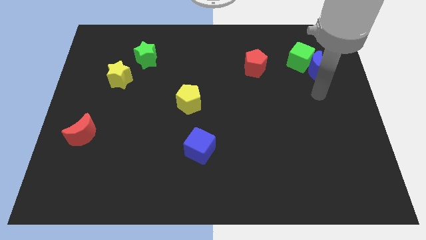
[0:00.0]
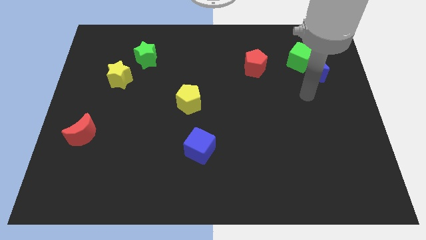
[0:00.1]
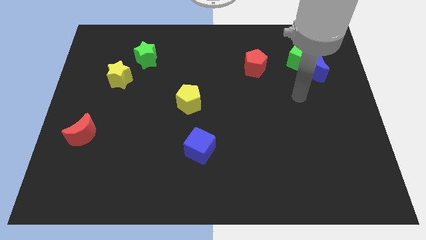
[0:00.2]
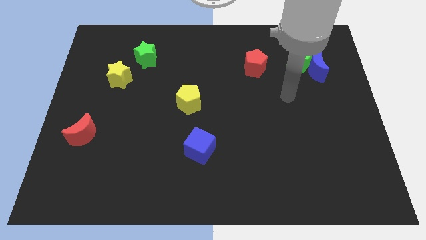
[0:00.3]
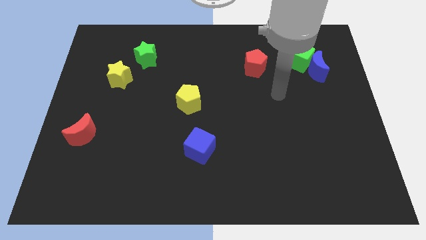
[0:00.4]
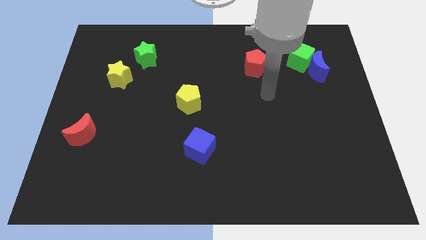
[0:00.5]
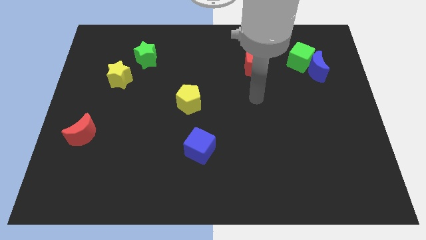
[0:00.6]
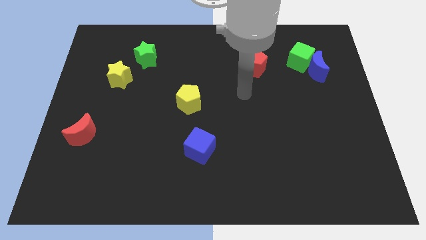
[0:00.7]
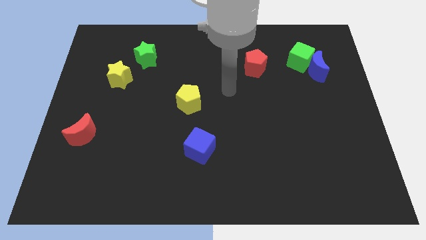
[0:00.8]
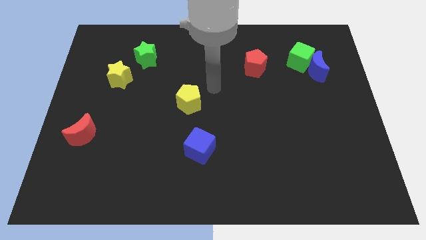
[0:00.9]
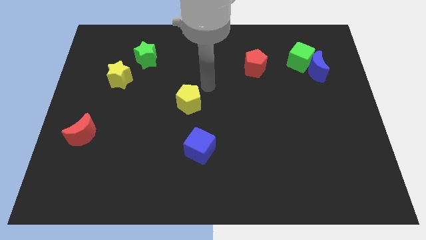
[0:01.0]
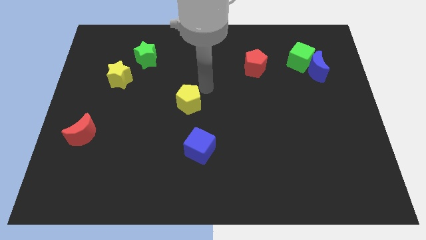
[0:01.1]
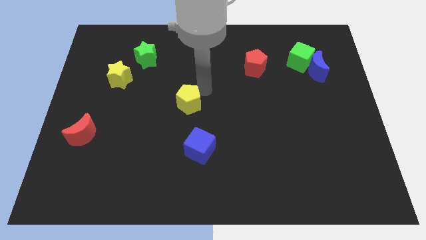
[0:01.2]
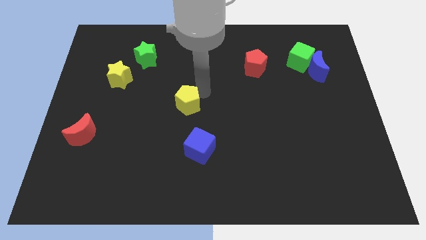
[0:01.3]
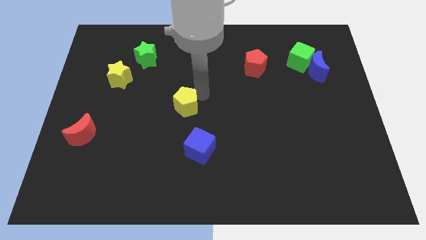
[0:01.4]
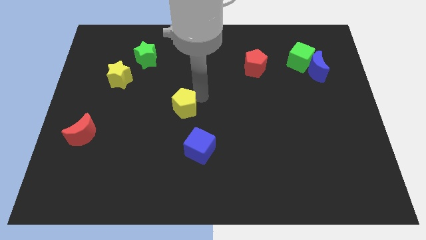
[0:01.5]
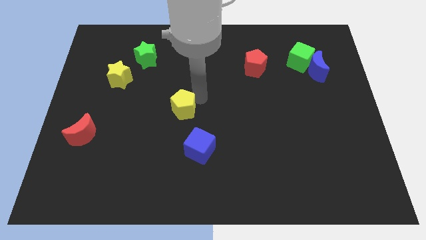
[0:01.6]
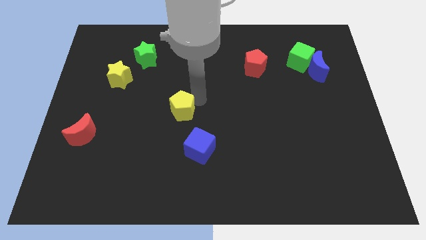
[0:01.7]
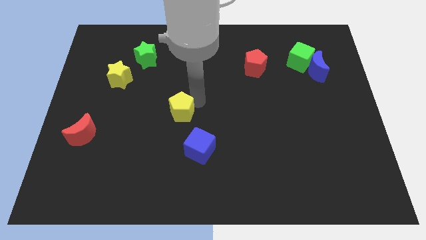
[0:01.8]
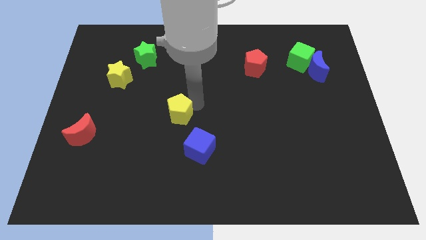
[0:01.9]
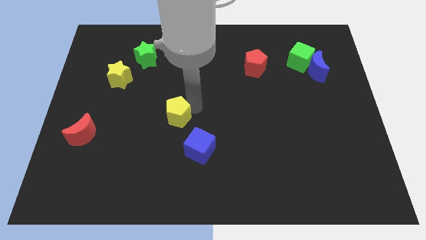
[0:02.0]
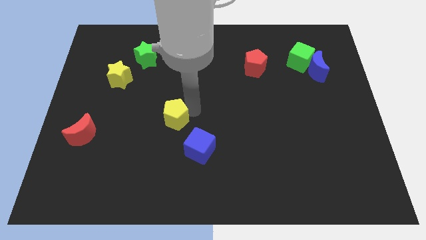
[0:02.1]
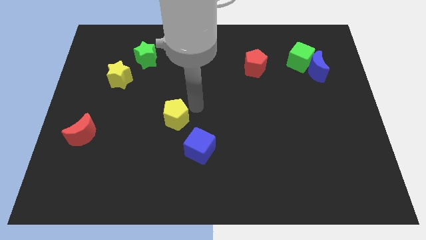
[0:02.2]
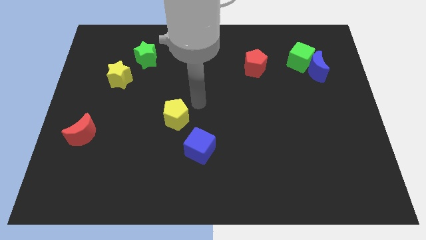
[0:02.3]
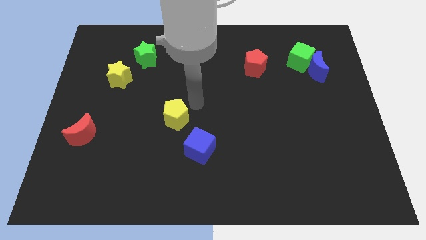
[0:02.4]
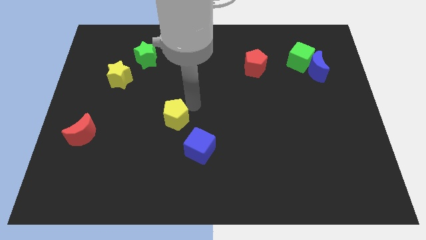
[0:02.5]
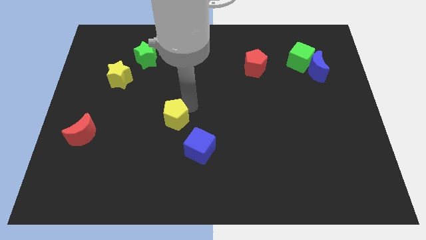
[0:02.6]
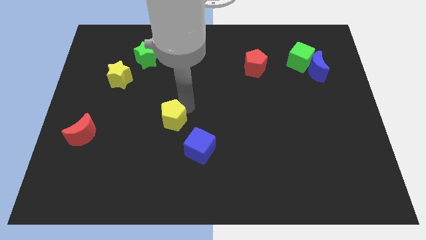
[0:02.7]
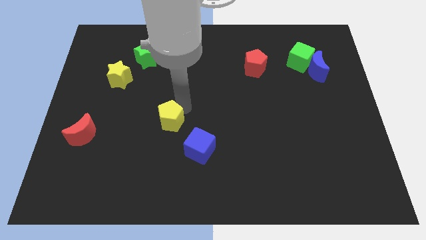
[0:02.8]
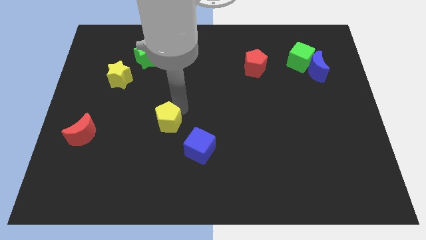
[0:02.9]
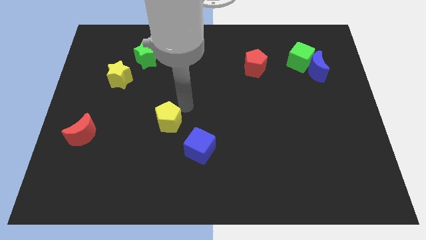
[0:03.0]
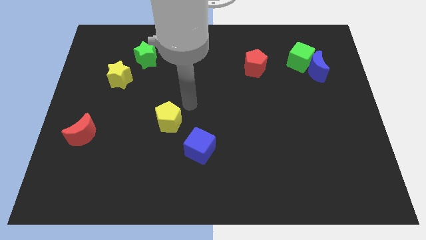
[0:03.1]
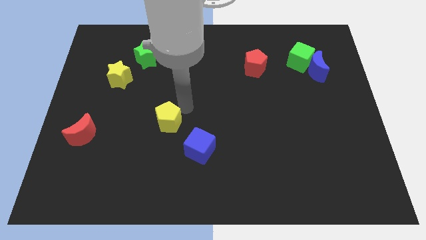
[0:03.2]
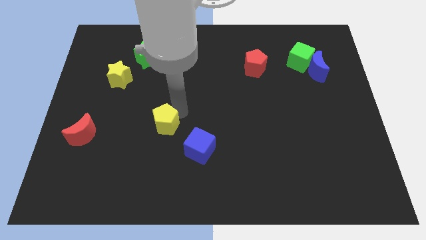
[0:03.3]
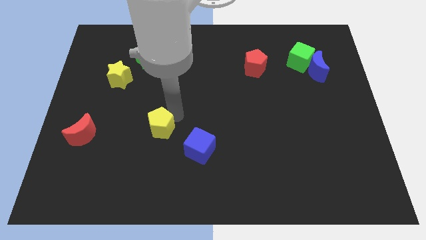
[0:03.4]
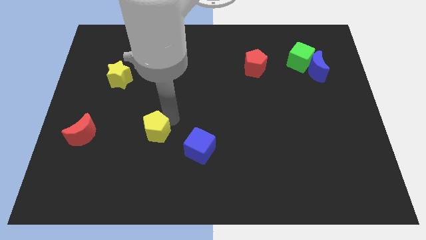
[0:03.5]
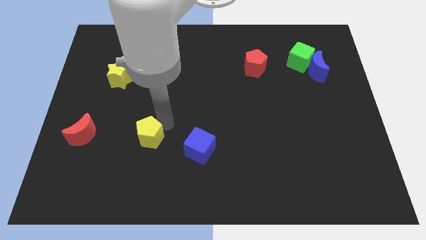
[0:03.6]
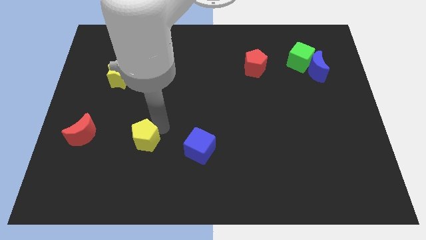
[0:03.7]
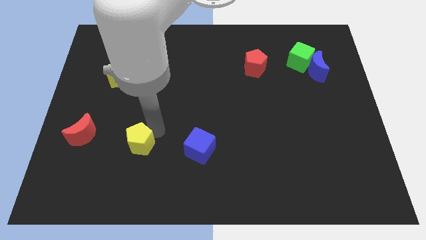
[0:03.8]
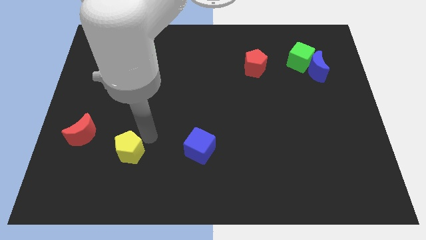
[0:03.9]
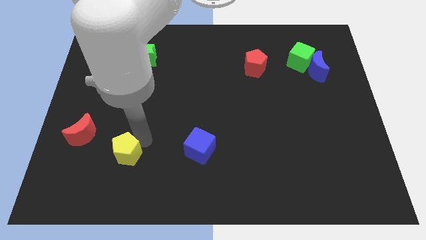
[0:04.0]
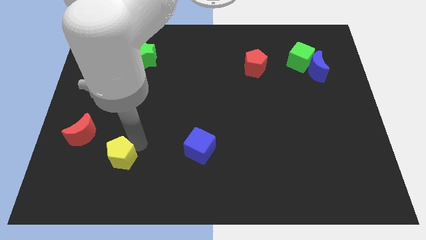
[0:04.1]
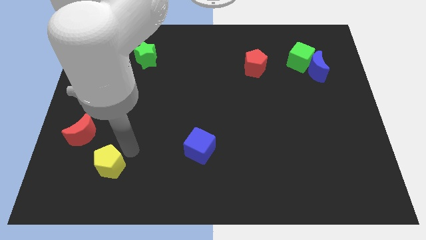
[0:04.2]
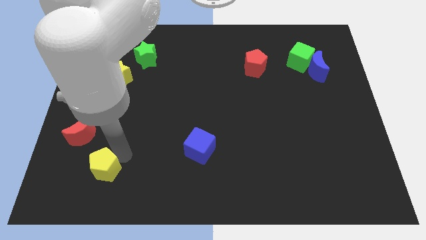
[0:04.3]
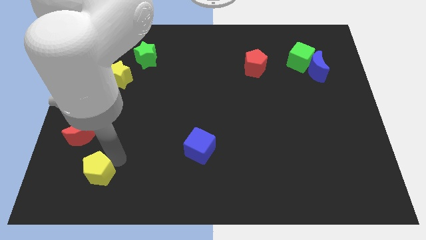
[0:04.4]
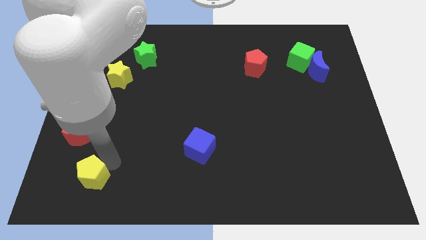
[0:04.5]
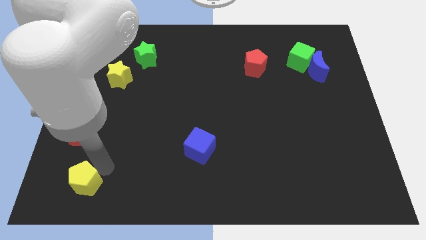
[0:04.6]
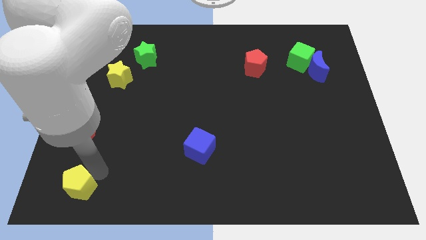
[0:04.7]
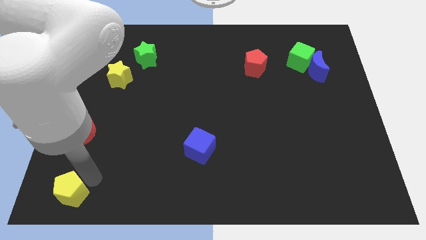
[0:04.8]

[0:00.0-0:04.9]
slide the yellow pentagon to the bottom left of the board

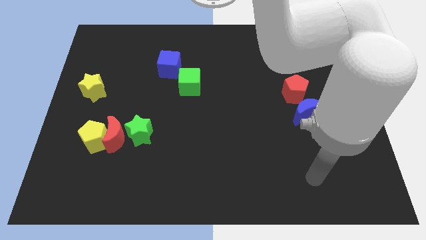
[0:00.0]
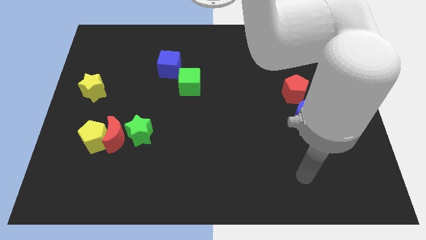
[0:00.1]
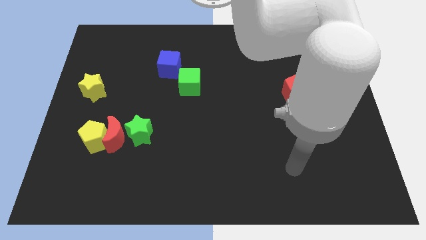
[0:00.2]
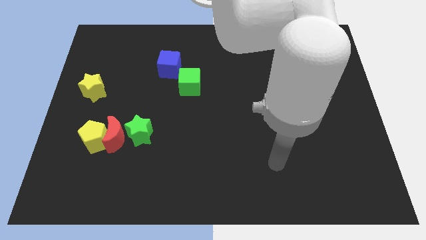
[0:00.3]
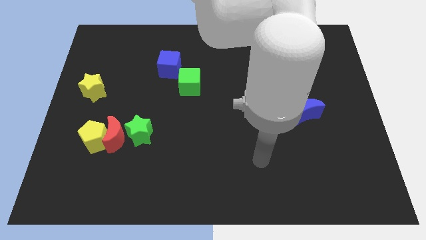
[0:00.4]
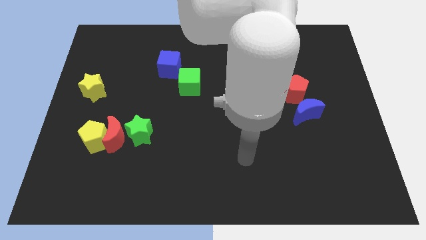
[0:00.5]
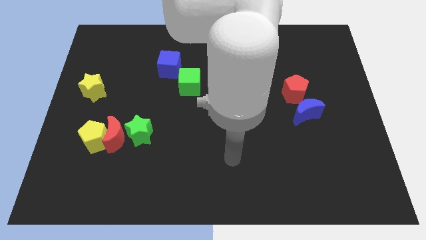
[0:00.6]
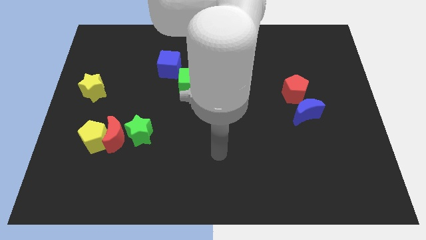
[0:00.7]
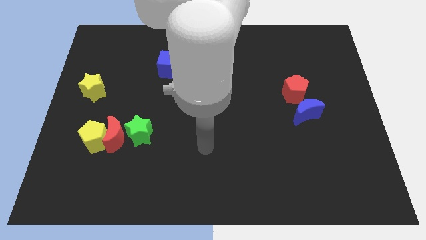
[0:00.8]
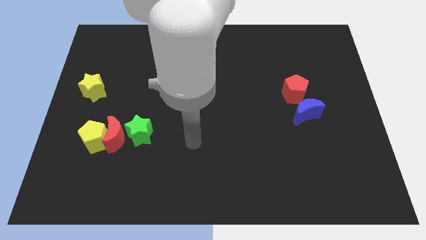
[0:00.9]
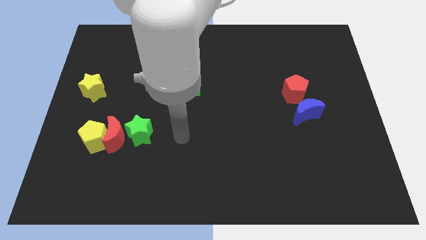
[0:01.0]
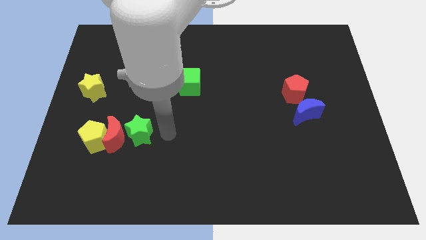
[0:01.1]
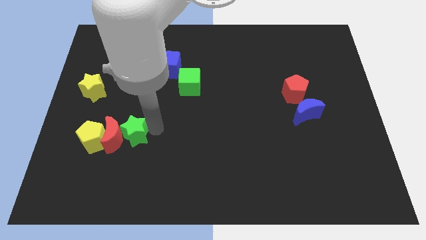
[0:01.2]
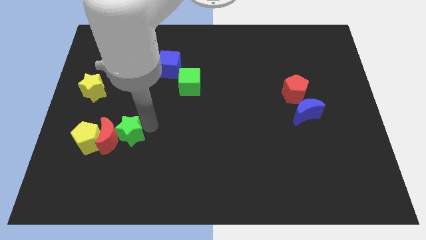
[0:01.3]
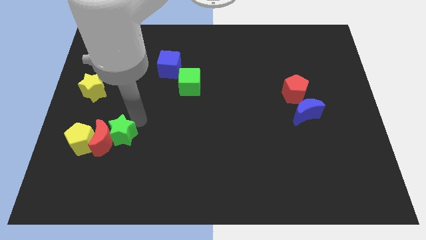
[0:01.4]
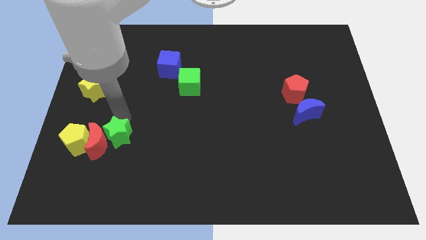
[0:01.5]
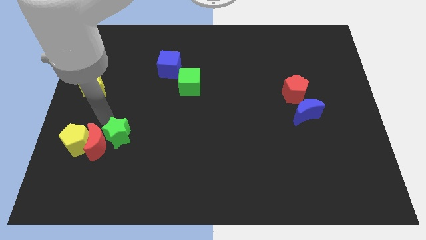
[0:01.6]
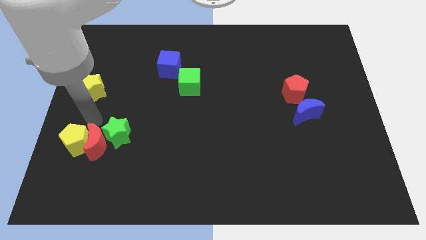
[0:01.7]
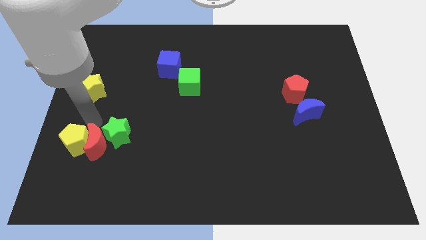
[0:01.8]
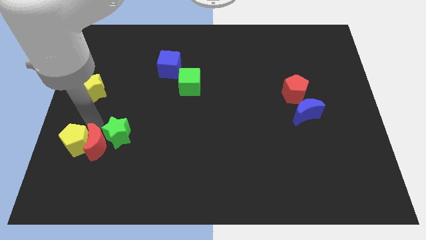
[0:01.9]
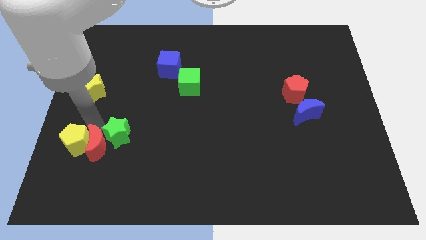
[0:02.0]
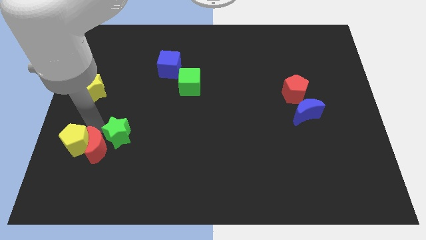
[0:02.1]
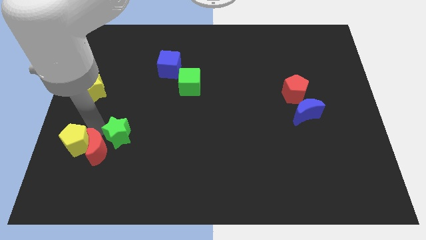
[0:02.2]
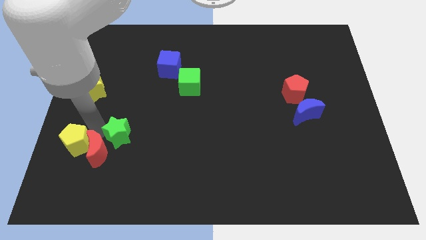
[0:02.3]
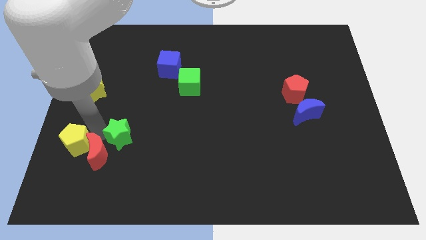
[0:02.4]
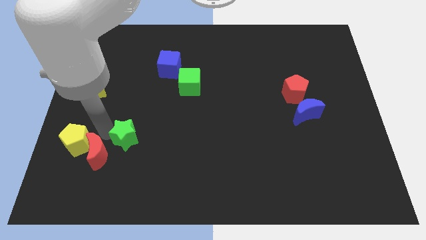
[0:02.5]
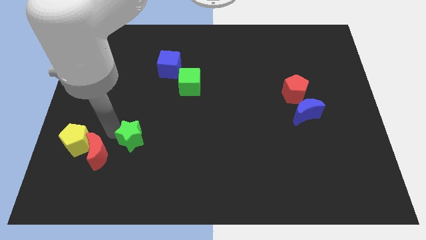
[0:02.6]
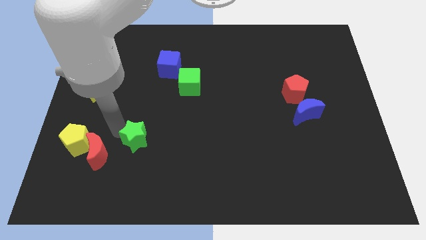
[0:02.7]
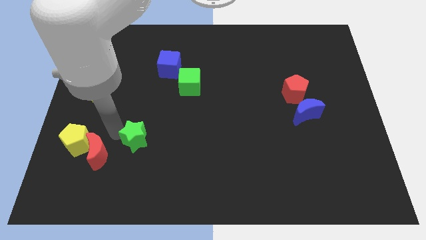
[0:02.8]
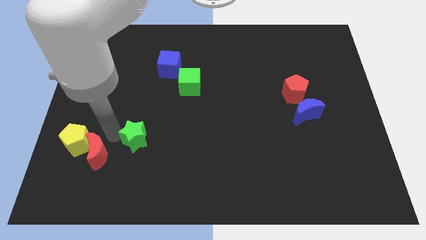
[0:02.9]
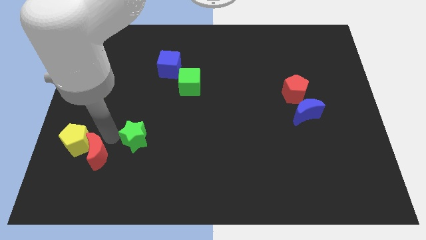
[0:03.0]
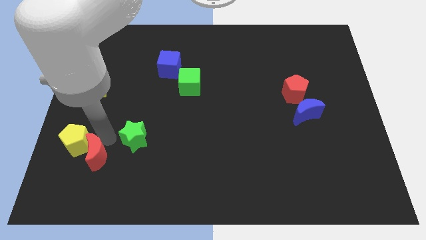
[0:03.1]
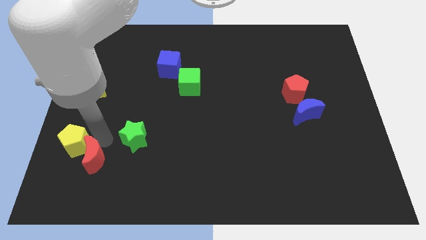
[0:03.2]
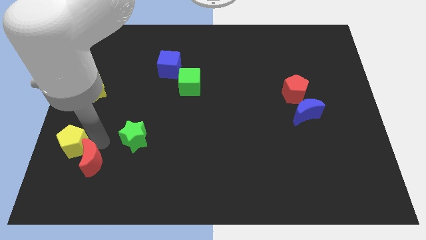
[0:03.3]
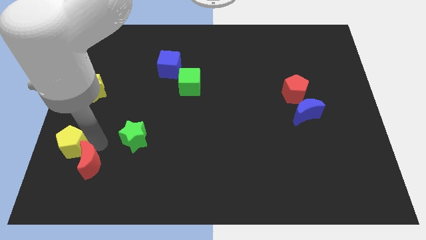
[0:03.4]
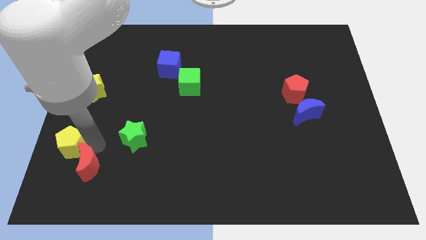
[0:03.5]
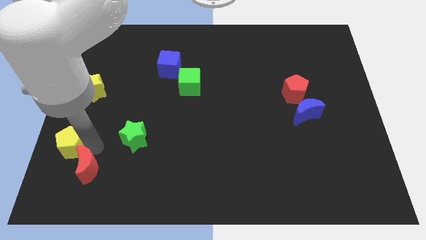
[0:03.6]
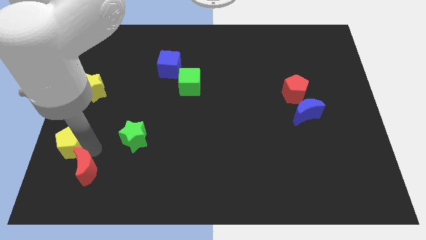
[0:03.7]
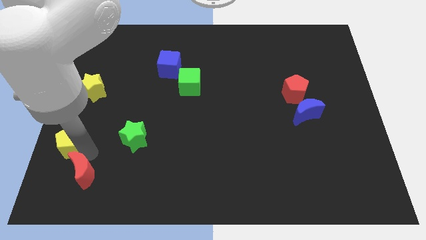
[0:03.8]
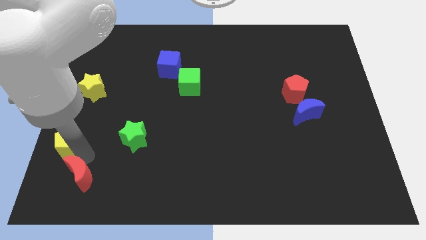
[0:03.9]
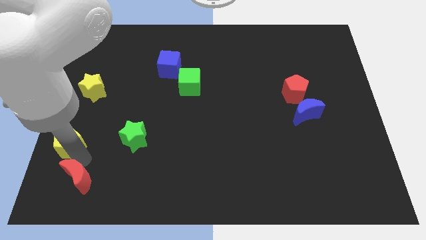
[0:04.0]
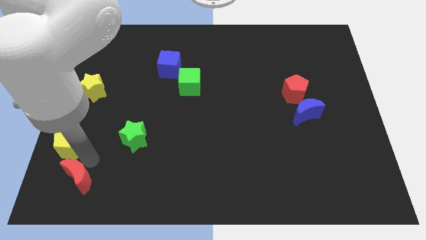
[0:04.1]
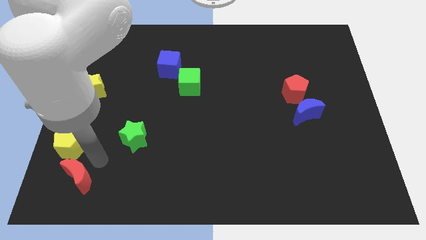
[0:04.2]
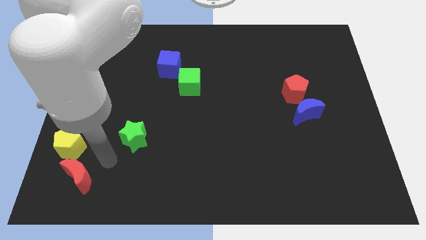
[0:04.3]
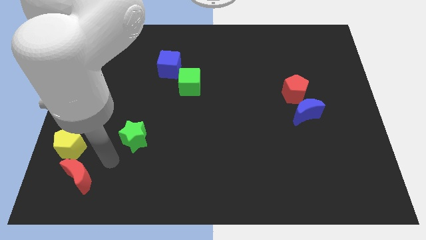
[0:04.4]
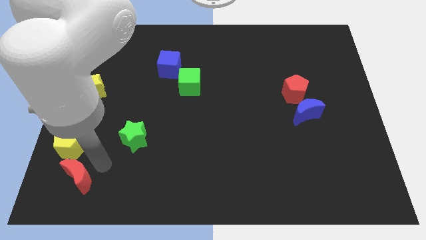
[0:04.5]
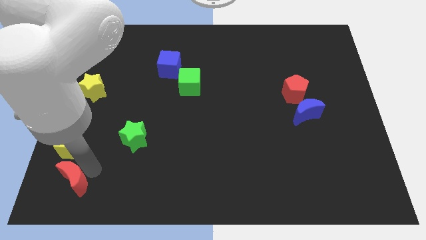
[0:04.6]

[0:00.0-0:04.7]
move the red moon to the bottom left corner
